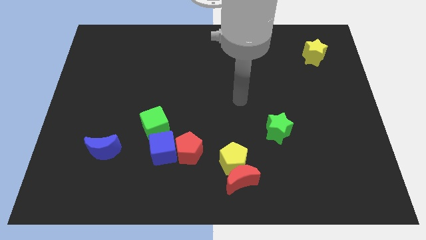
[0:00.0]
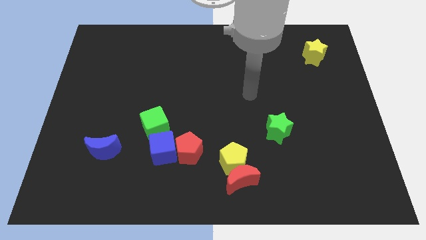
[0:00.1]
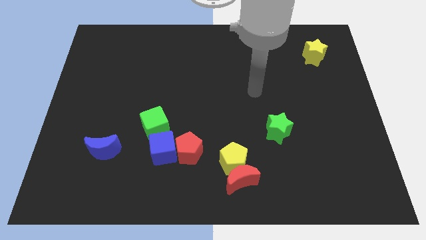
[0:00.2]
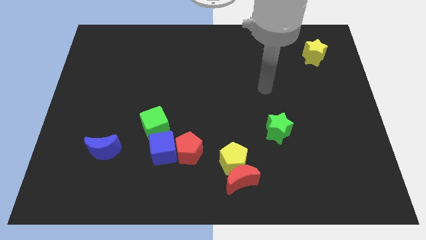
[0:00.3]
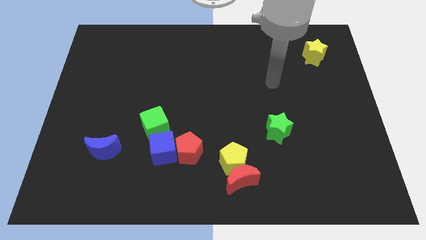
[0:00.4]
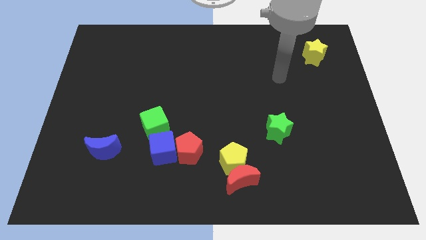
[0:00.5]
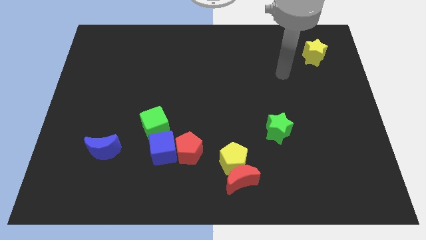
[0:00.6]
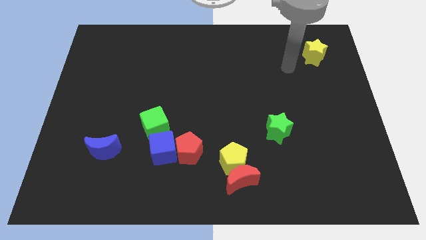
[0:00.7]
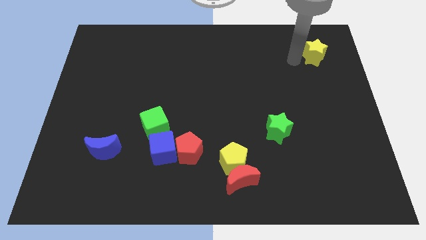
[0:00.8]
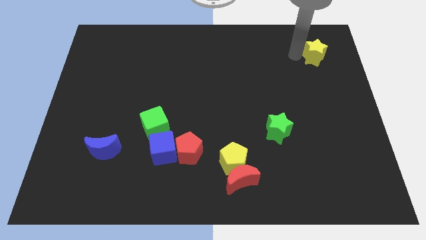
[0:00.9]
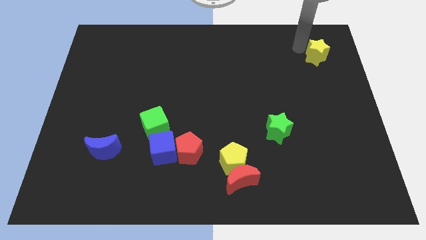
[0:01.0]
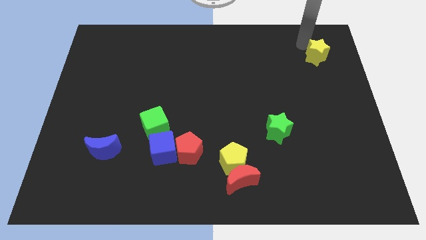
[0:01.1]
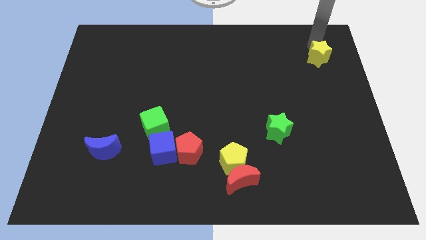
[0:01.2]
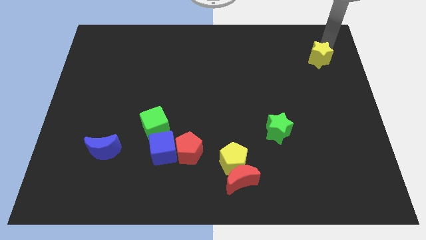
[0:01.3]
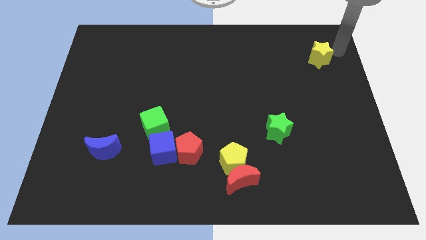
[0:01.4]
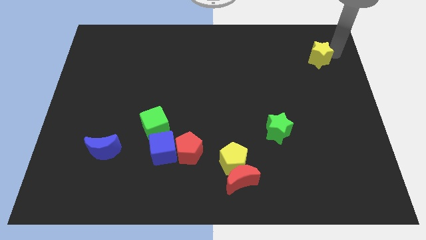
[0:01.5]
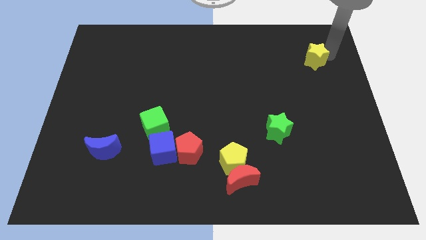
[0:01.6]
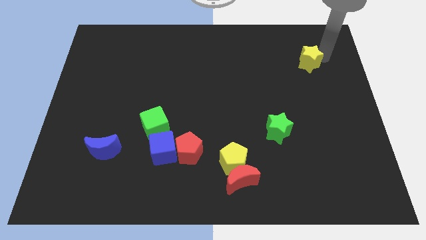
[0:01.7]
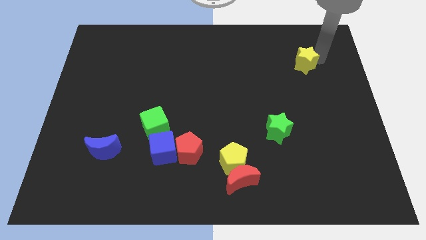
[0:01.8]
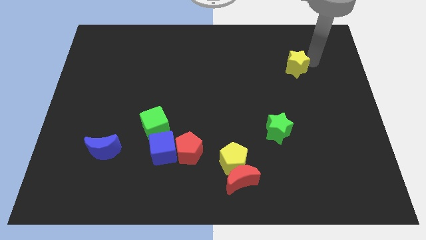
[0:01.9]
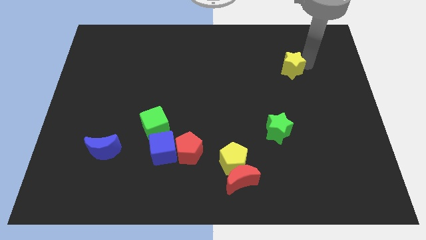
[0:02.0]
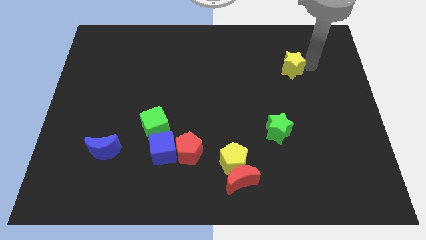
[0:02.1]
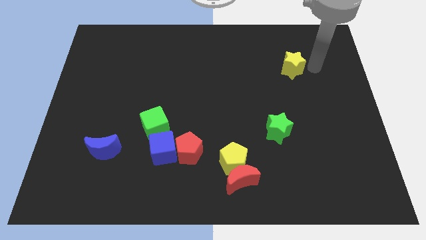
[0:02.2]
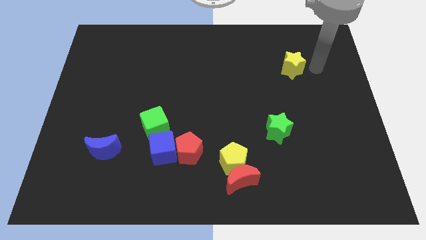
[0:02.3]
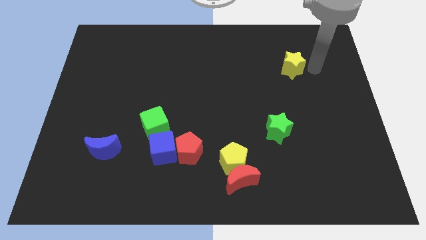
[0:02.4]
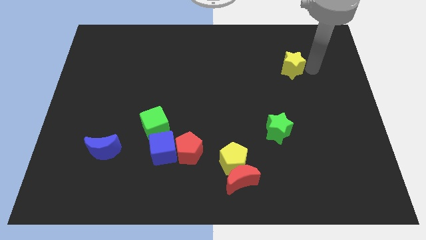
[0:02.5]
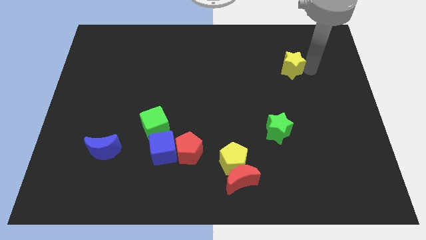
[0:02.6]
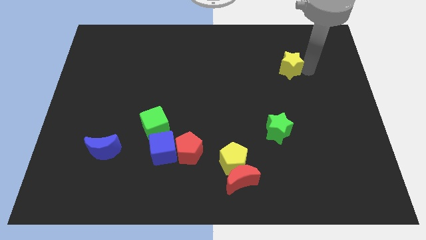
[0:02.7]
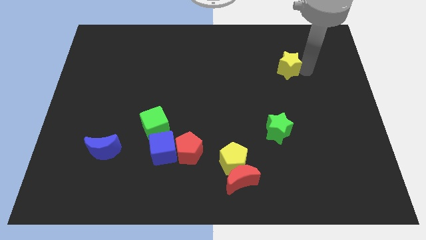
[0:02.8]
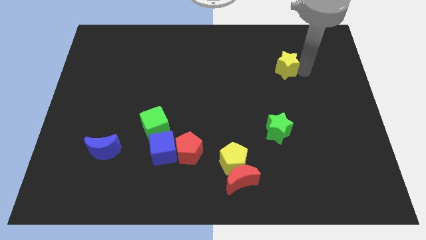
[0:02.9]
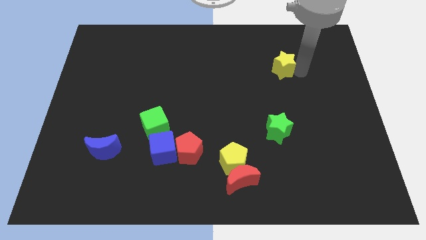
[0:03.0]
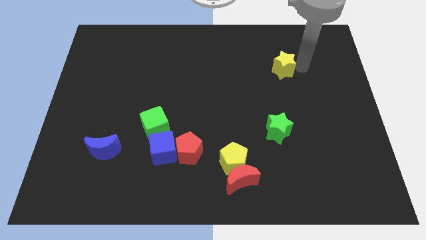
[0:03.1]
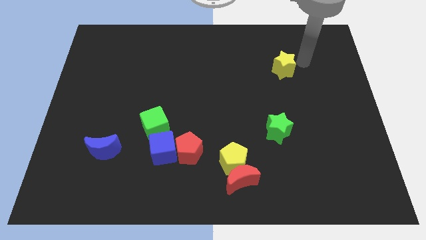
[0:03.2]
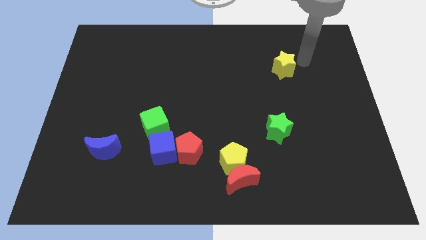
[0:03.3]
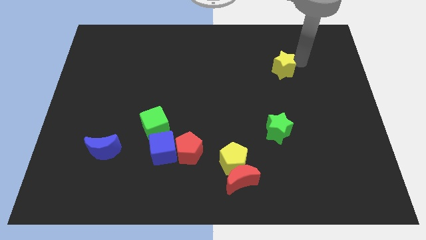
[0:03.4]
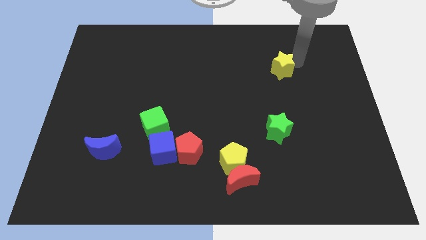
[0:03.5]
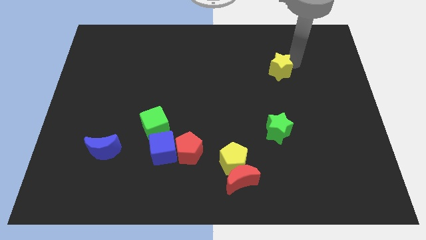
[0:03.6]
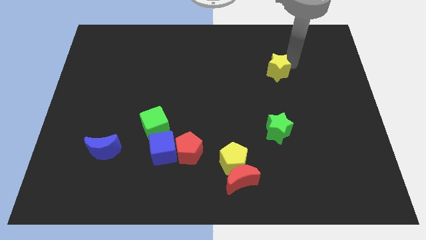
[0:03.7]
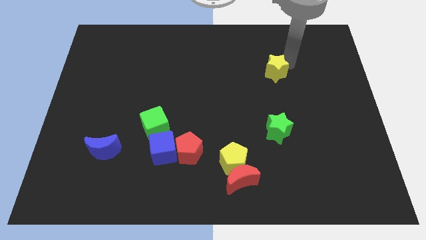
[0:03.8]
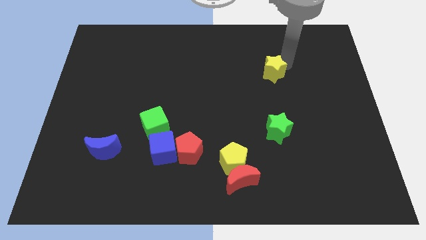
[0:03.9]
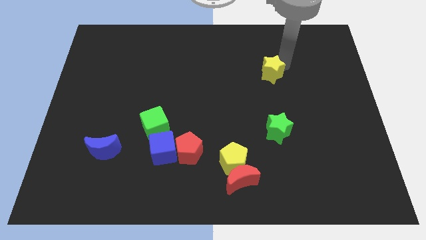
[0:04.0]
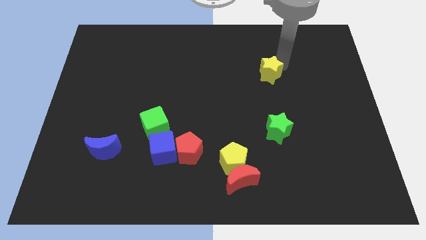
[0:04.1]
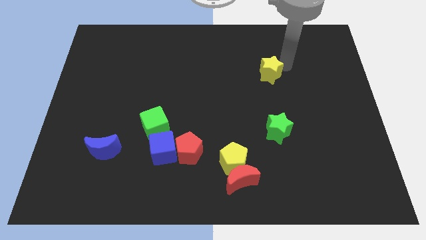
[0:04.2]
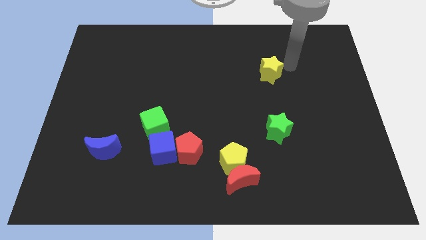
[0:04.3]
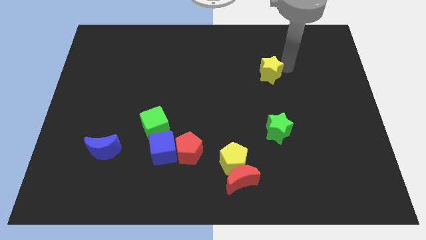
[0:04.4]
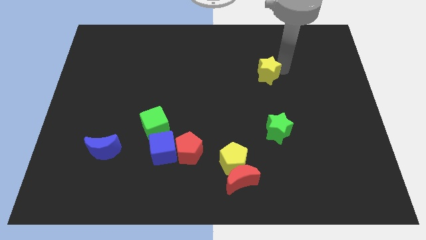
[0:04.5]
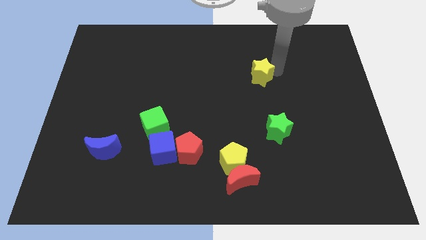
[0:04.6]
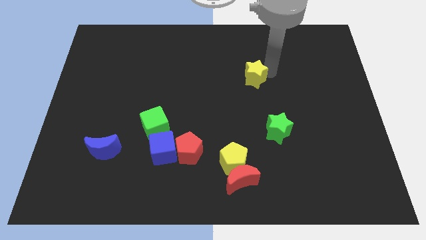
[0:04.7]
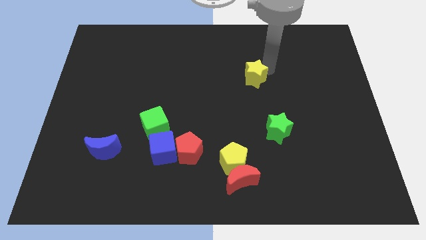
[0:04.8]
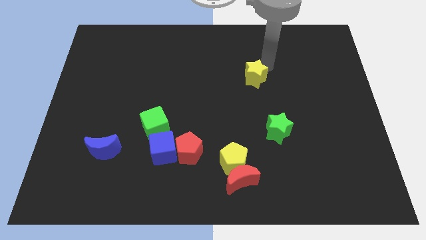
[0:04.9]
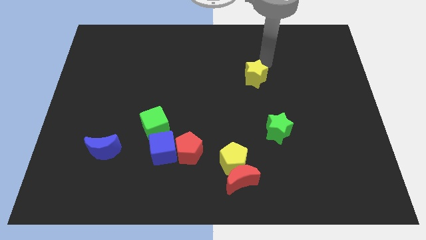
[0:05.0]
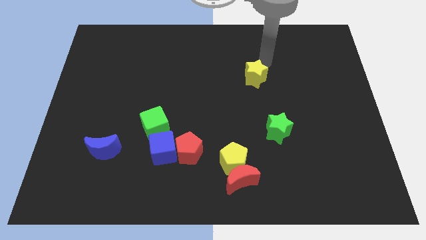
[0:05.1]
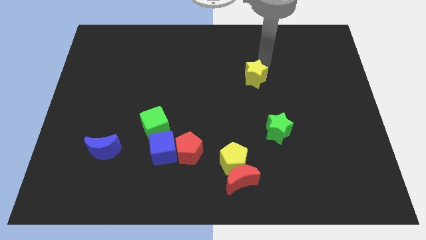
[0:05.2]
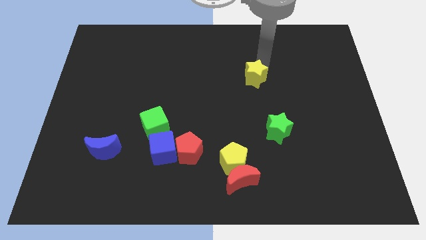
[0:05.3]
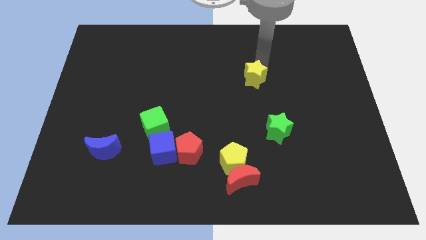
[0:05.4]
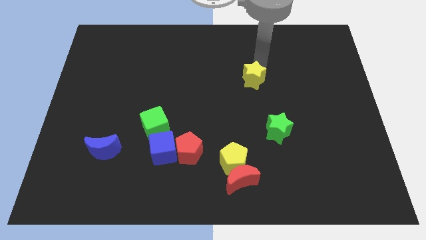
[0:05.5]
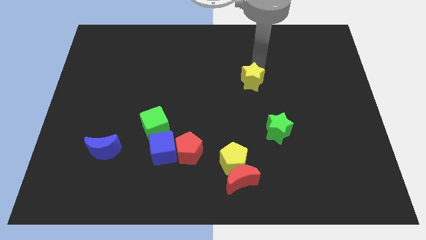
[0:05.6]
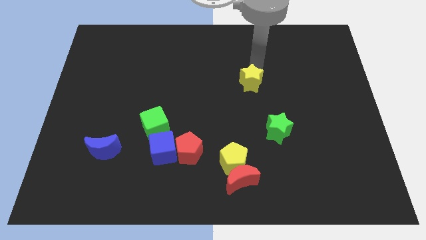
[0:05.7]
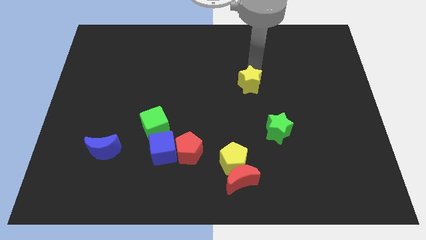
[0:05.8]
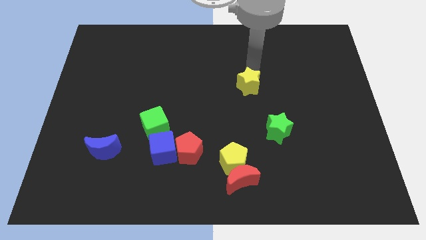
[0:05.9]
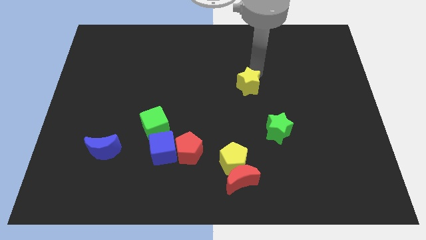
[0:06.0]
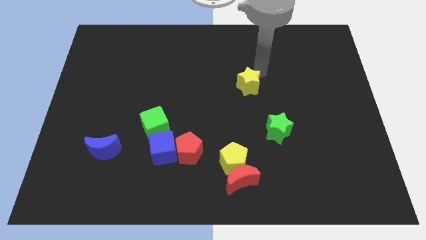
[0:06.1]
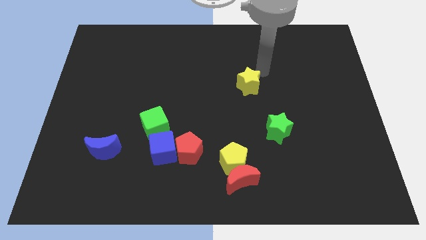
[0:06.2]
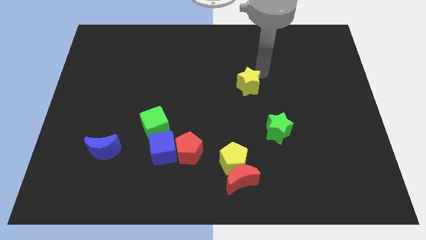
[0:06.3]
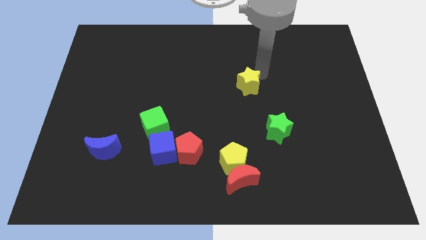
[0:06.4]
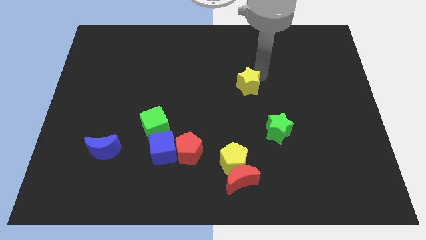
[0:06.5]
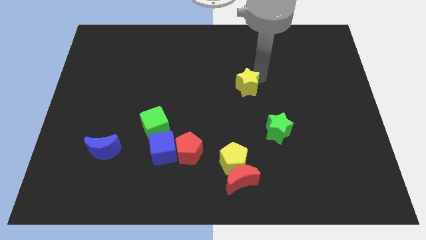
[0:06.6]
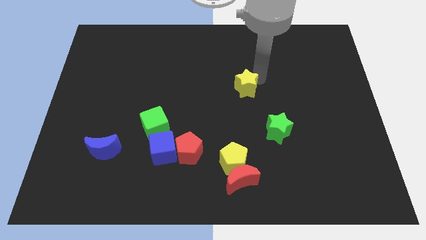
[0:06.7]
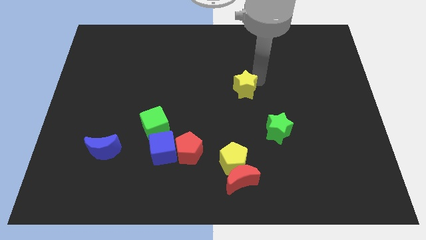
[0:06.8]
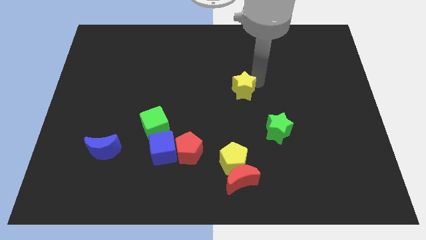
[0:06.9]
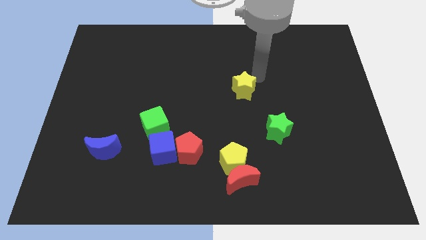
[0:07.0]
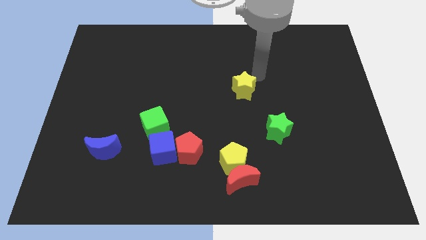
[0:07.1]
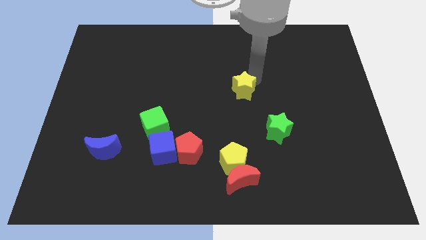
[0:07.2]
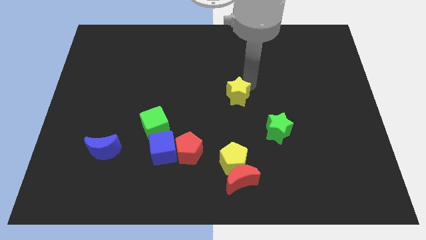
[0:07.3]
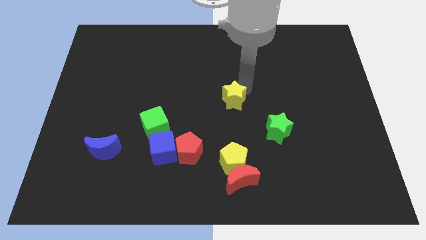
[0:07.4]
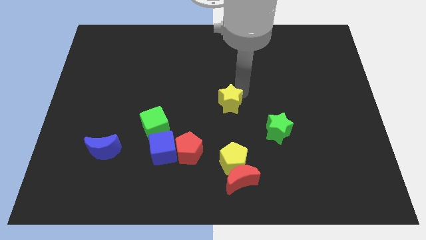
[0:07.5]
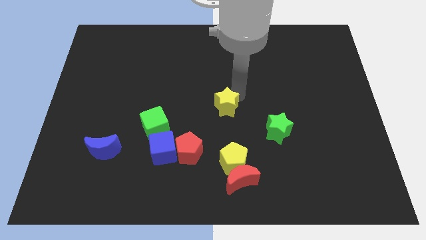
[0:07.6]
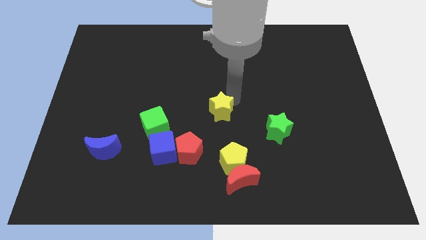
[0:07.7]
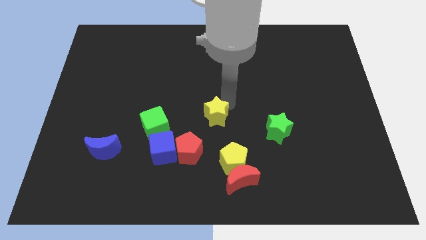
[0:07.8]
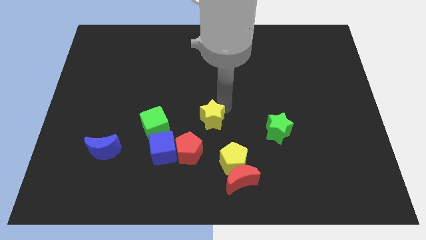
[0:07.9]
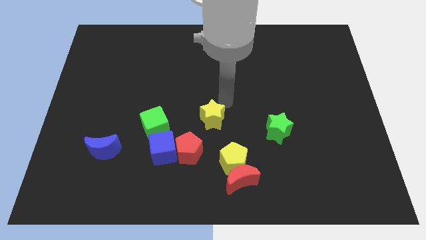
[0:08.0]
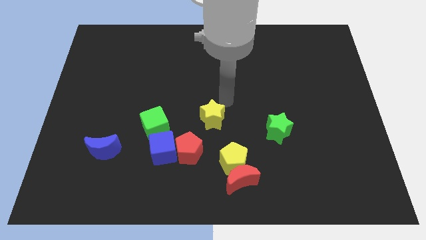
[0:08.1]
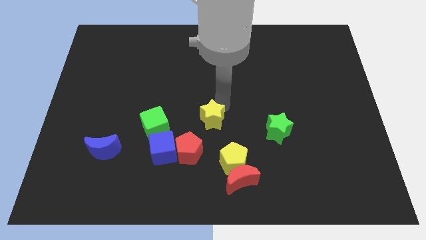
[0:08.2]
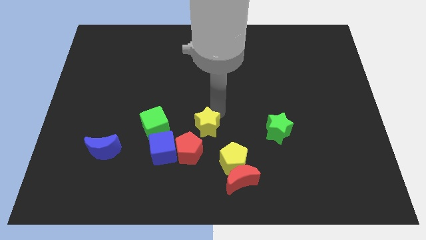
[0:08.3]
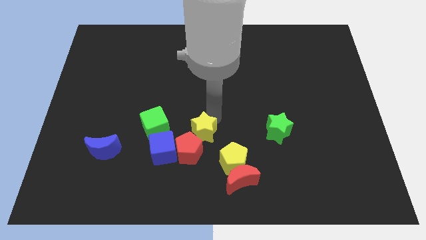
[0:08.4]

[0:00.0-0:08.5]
put the yellow star close to the red pentagon
